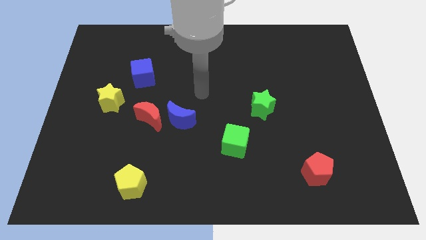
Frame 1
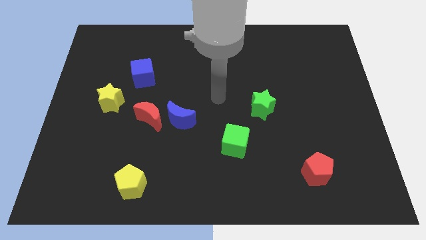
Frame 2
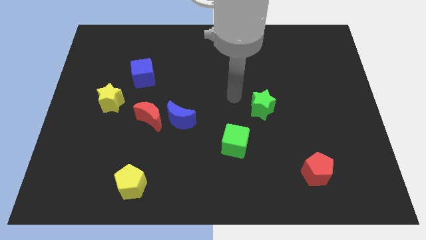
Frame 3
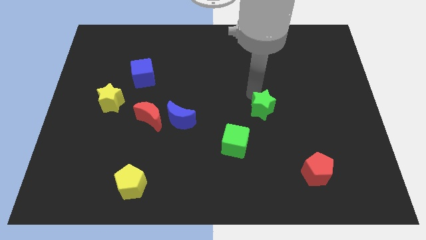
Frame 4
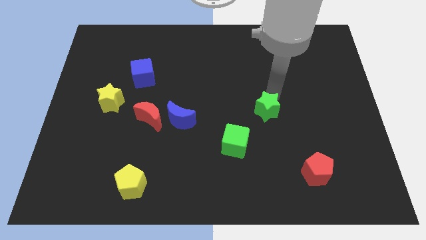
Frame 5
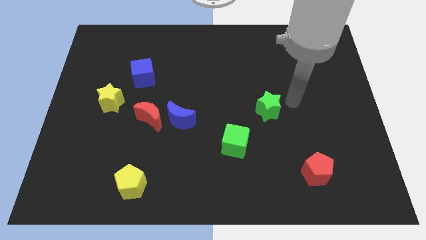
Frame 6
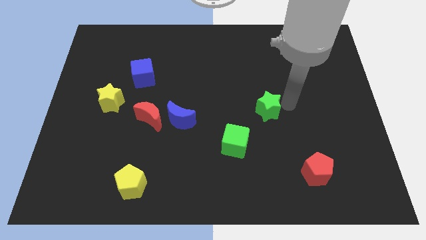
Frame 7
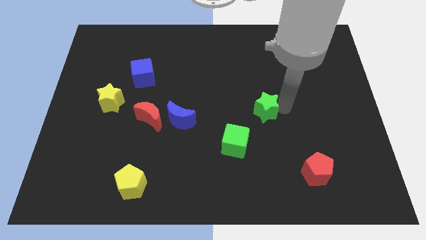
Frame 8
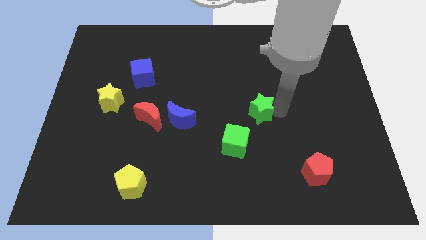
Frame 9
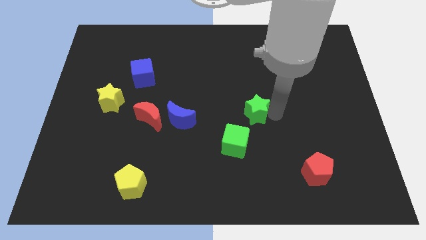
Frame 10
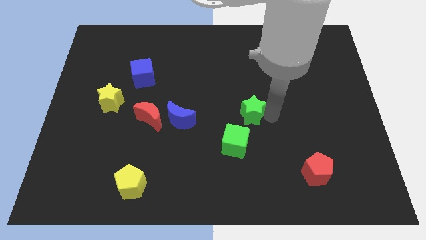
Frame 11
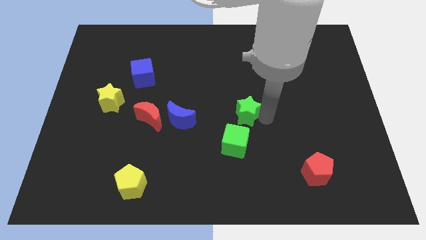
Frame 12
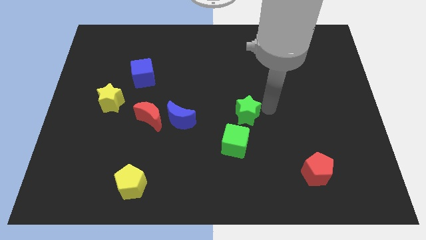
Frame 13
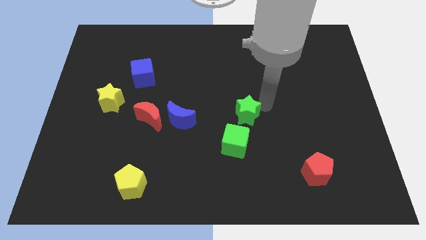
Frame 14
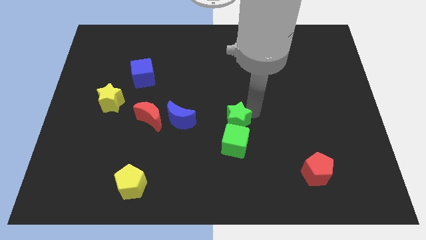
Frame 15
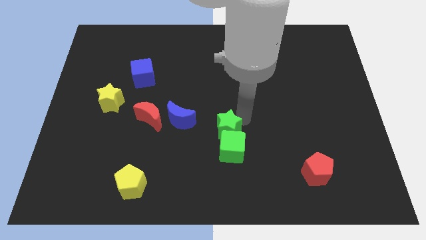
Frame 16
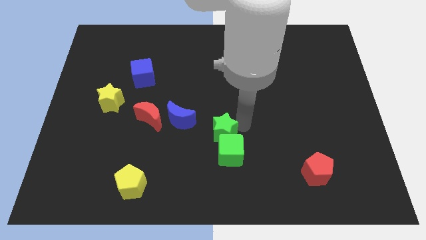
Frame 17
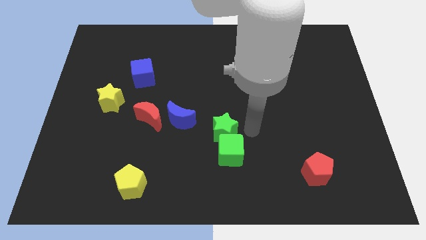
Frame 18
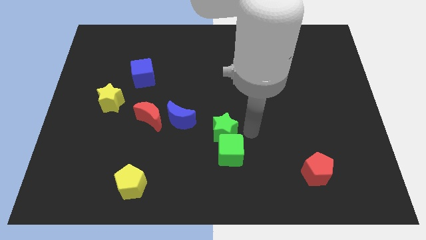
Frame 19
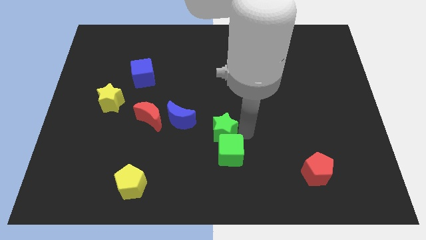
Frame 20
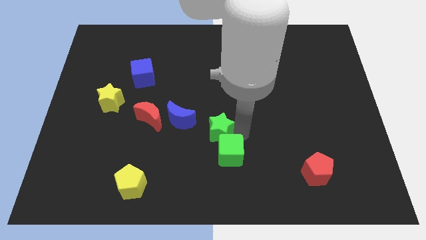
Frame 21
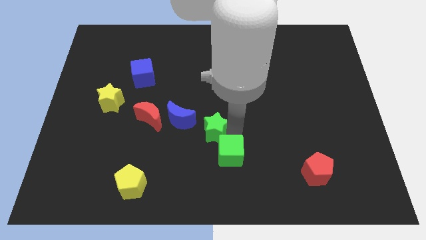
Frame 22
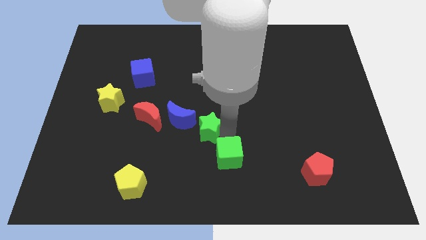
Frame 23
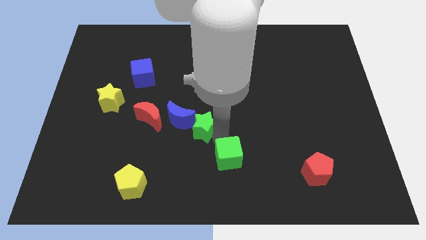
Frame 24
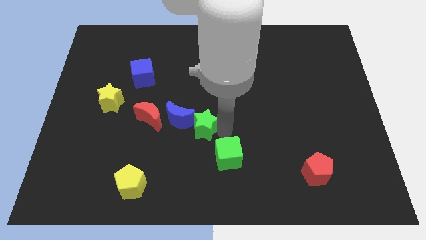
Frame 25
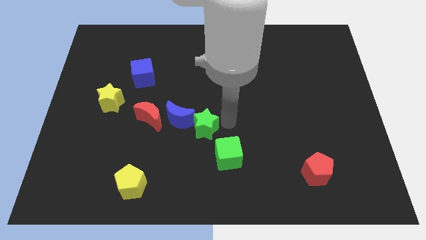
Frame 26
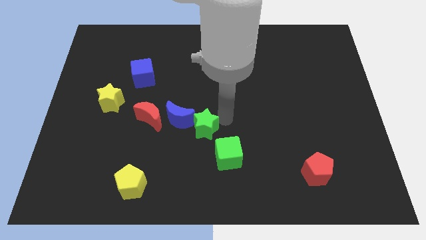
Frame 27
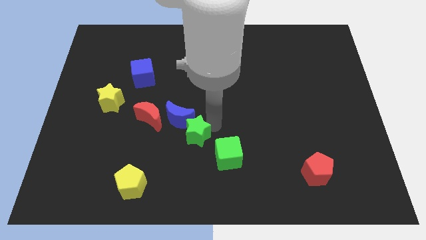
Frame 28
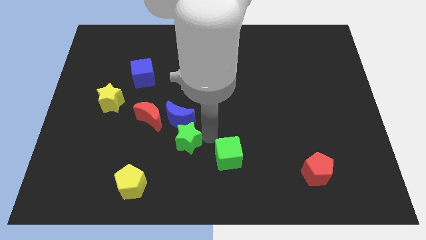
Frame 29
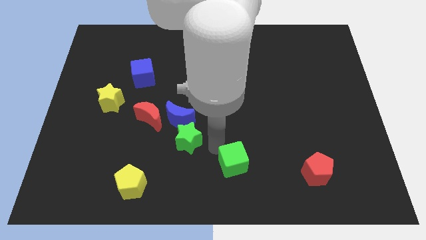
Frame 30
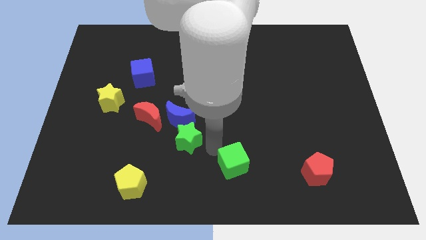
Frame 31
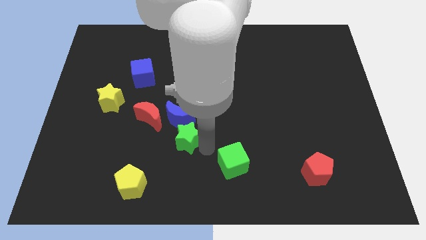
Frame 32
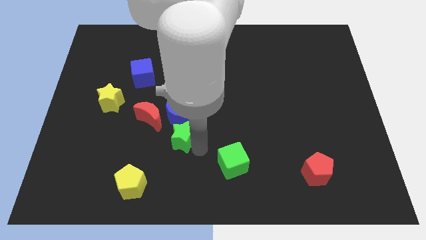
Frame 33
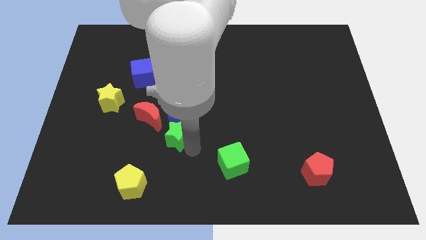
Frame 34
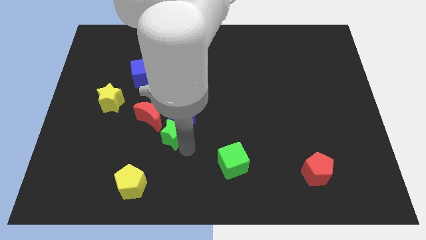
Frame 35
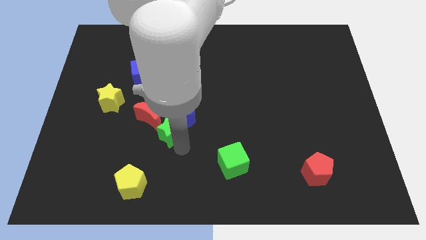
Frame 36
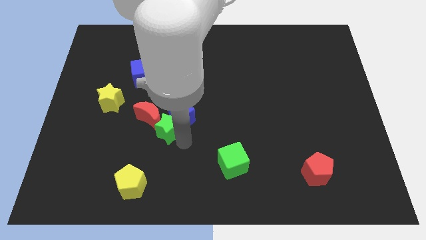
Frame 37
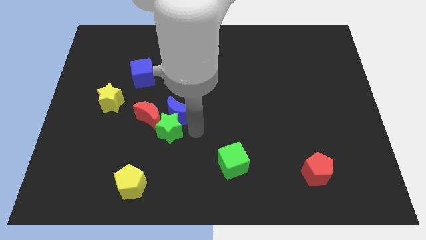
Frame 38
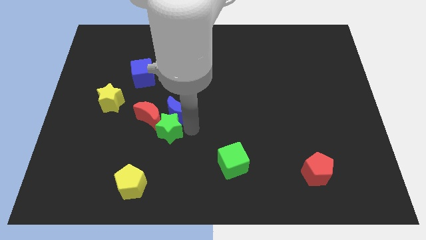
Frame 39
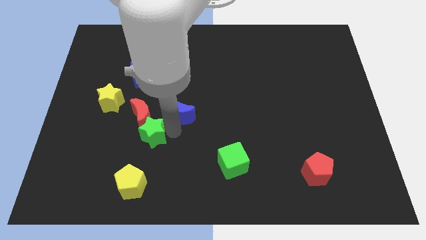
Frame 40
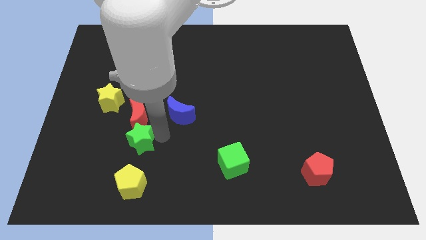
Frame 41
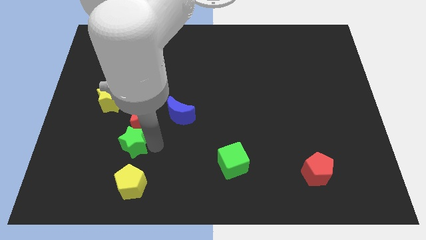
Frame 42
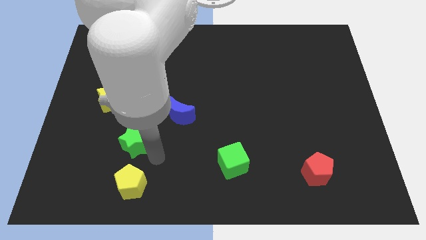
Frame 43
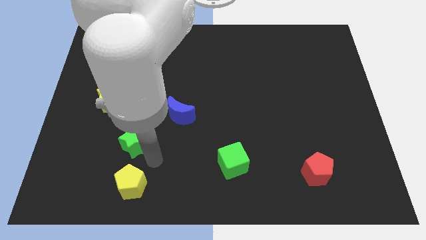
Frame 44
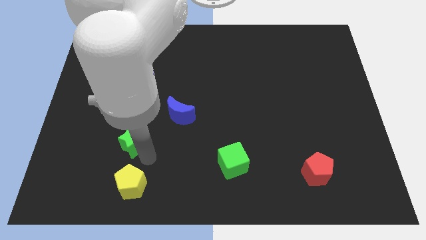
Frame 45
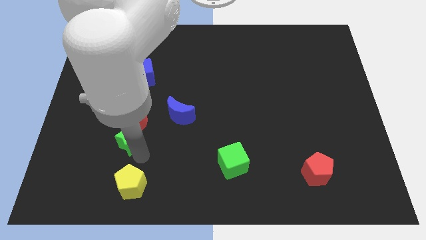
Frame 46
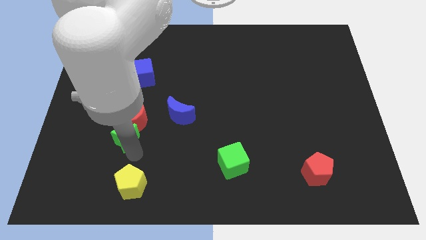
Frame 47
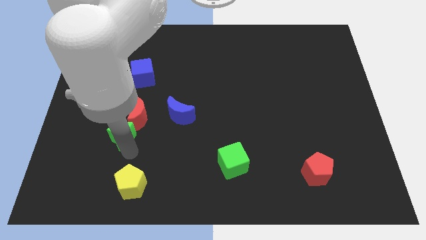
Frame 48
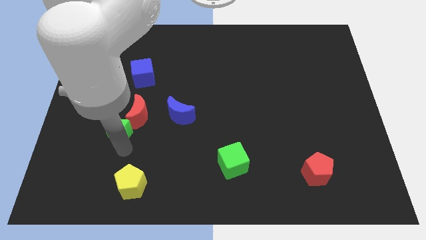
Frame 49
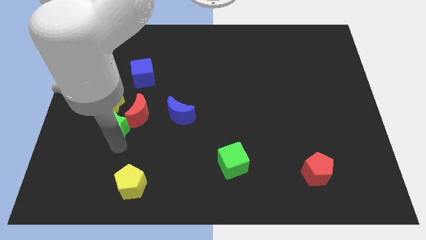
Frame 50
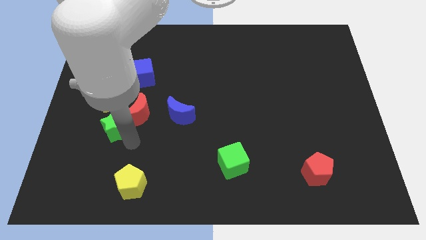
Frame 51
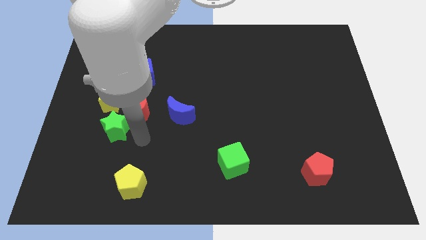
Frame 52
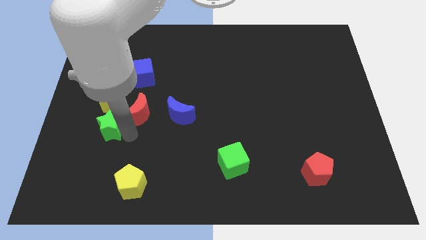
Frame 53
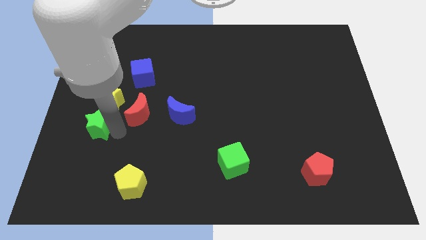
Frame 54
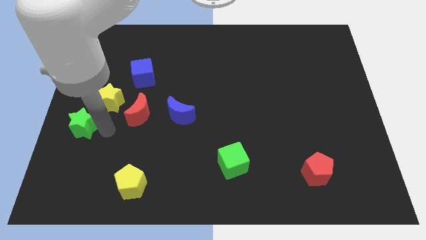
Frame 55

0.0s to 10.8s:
move the green star to the left side of the board

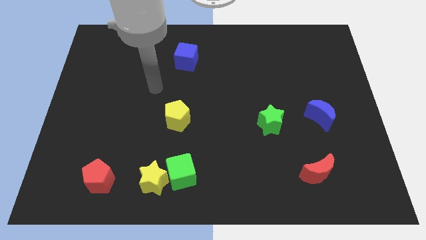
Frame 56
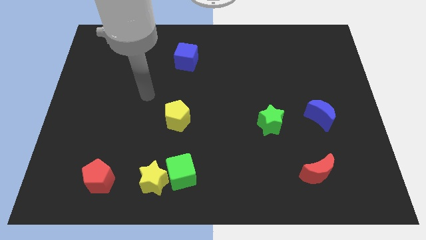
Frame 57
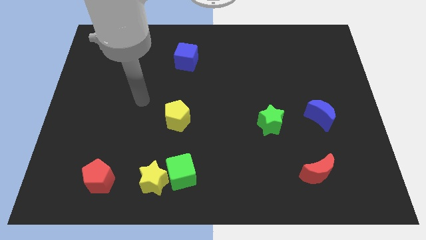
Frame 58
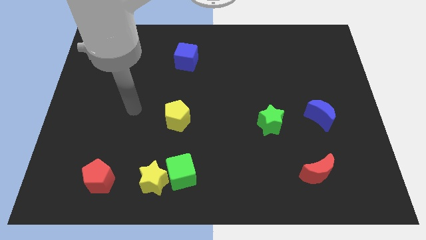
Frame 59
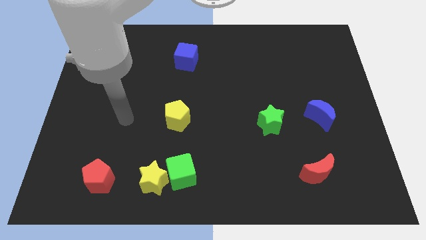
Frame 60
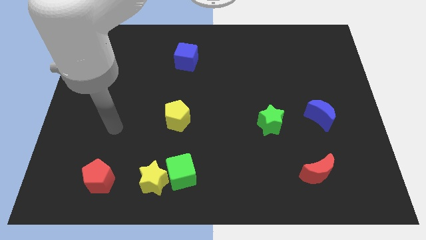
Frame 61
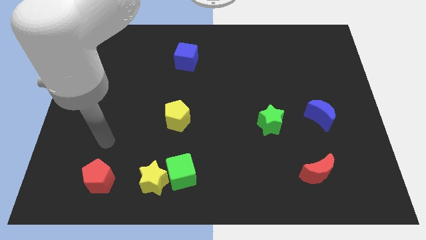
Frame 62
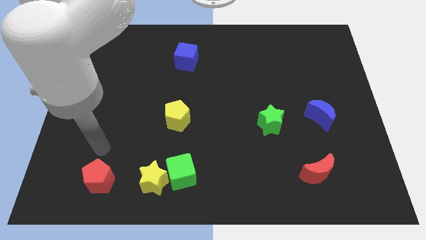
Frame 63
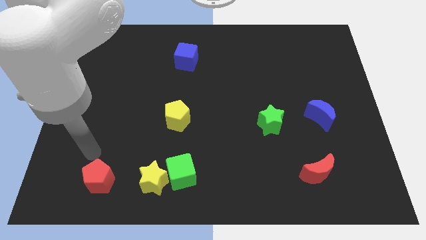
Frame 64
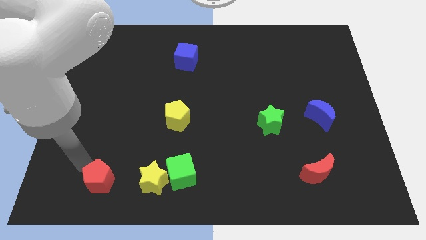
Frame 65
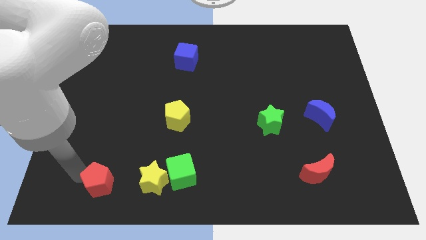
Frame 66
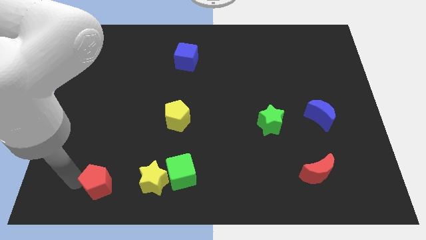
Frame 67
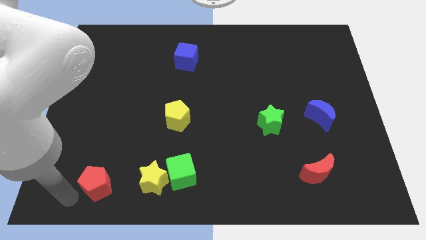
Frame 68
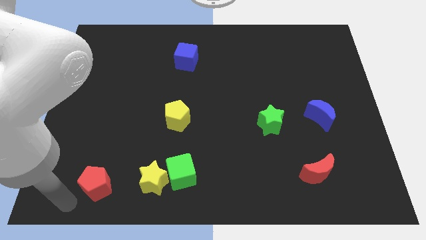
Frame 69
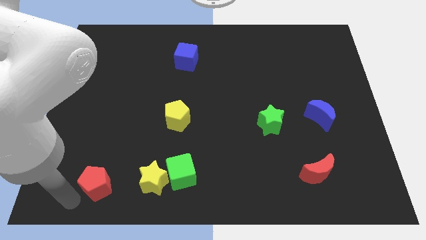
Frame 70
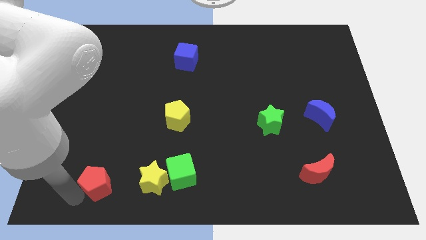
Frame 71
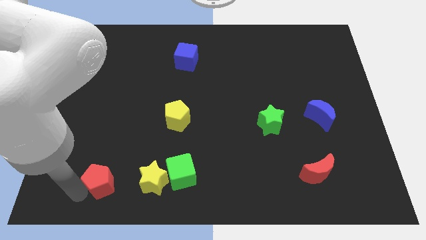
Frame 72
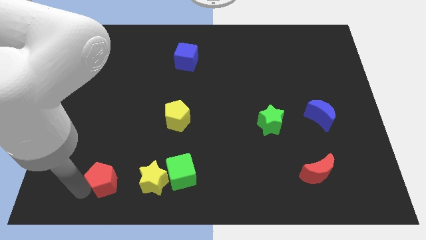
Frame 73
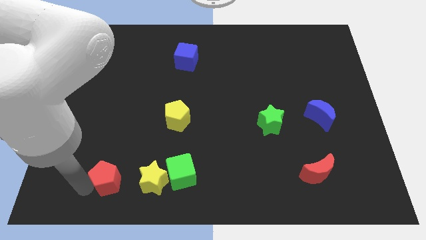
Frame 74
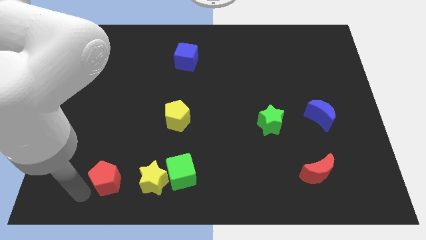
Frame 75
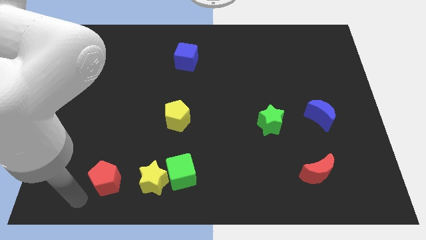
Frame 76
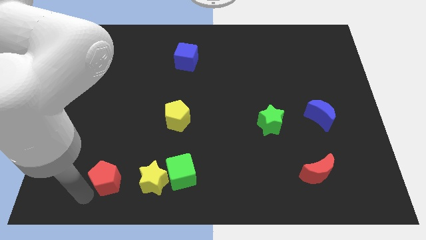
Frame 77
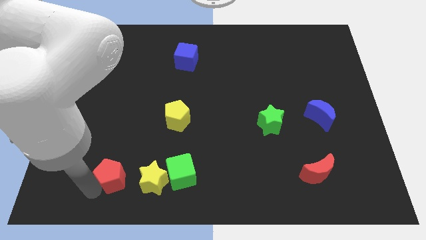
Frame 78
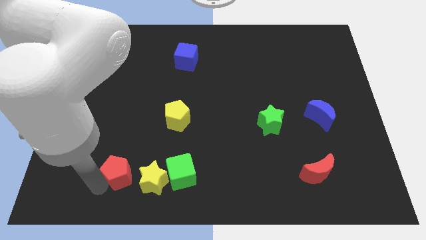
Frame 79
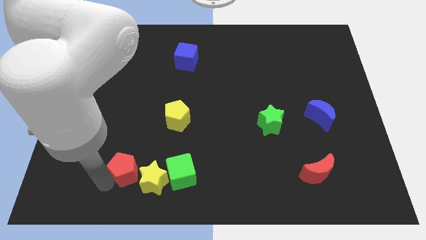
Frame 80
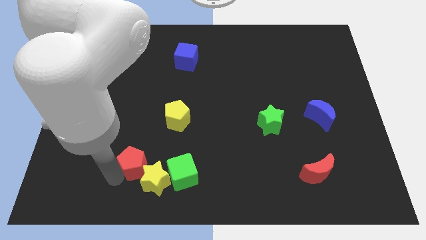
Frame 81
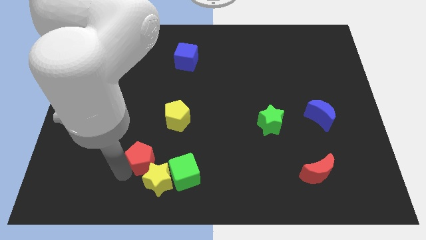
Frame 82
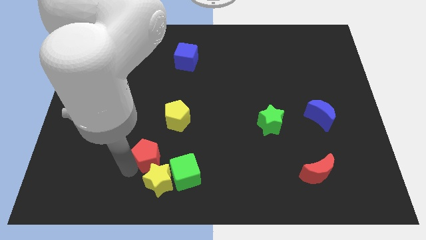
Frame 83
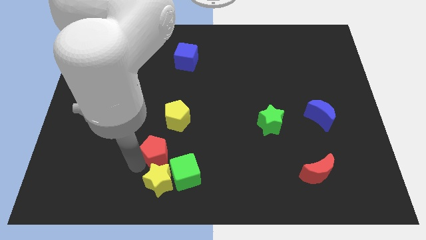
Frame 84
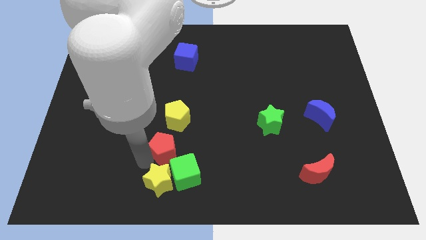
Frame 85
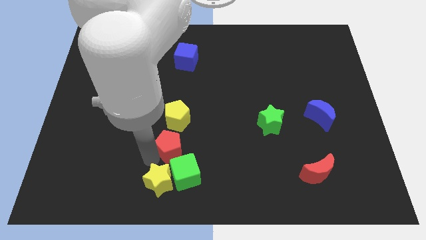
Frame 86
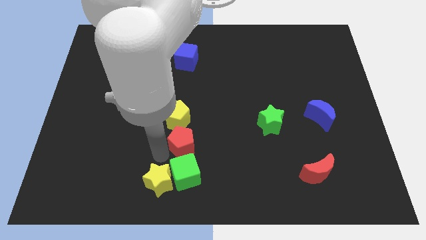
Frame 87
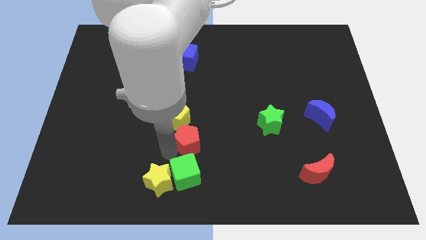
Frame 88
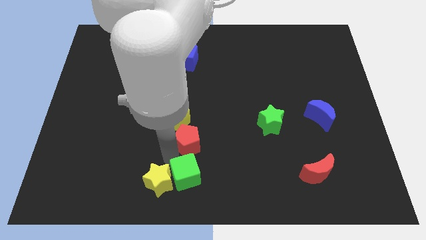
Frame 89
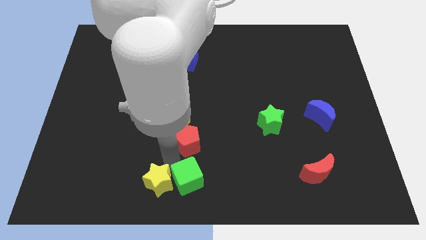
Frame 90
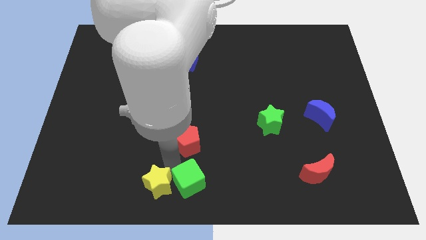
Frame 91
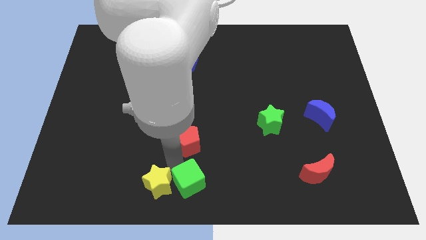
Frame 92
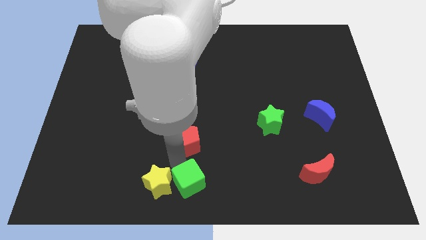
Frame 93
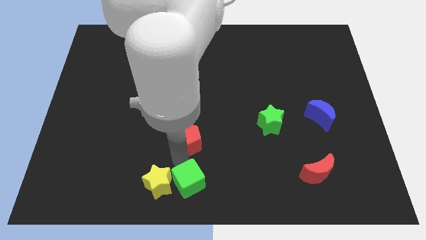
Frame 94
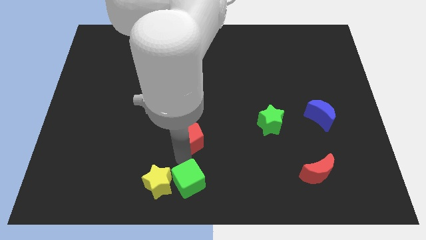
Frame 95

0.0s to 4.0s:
push the red pentagon to the middle
